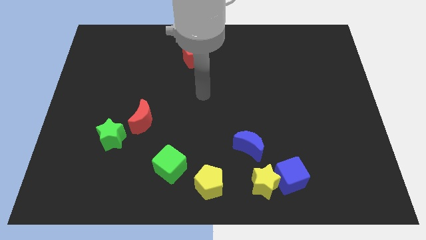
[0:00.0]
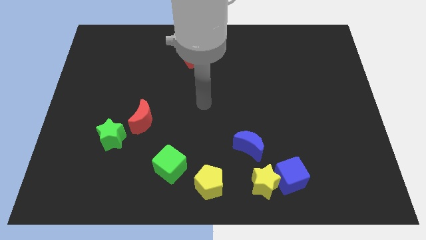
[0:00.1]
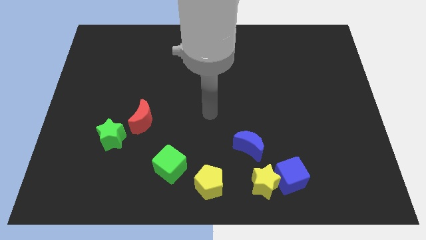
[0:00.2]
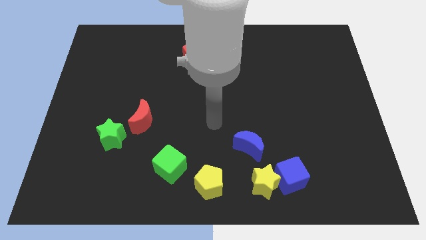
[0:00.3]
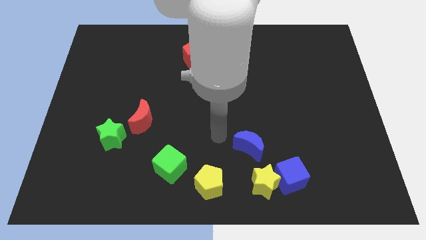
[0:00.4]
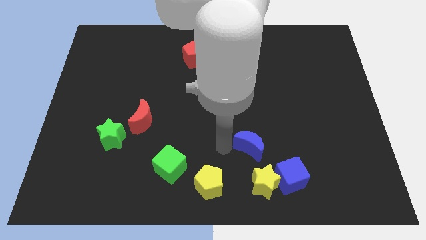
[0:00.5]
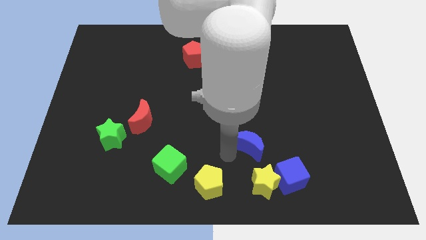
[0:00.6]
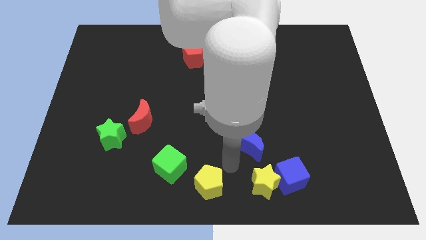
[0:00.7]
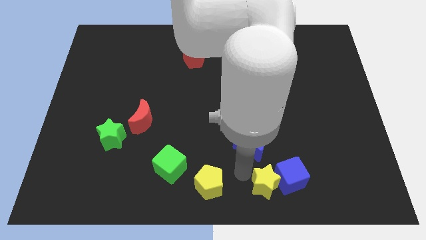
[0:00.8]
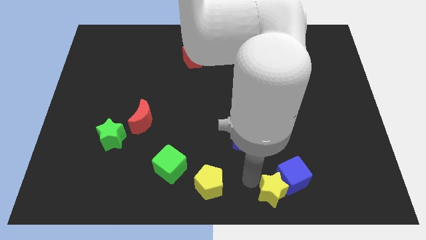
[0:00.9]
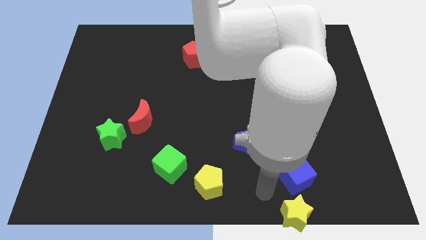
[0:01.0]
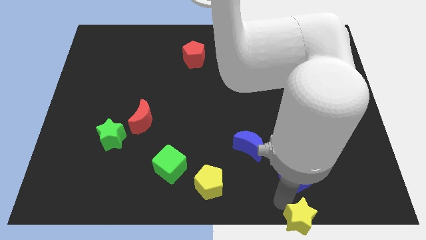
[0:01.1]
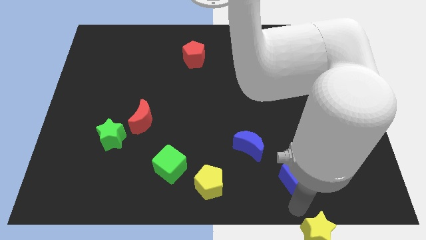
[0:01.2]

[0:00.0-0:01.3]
separate the blue cube from the yellow star

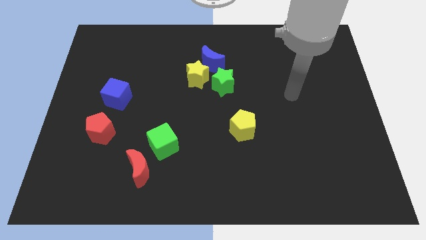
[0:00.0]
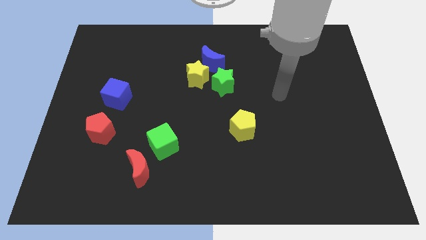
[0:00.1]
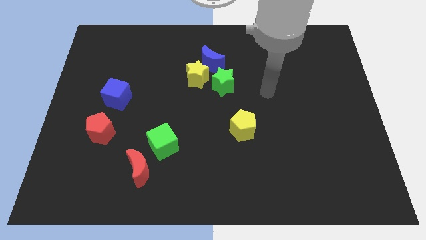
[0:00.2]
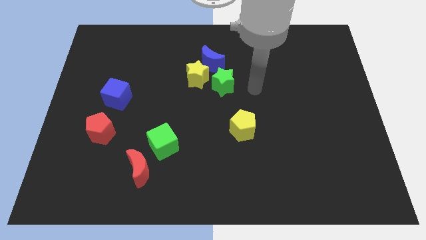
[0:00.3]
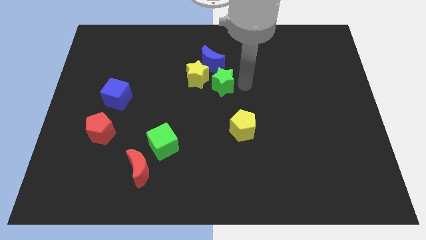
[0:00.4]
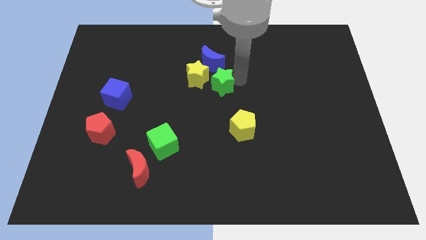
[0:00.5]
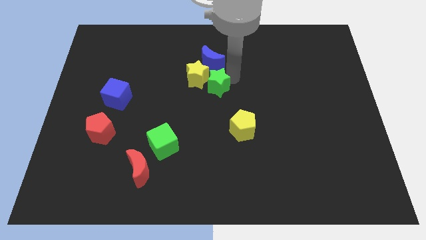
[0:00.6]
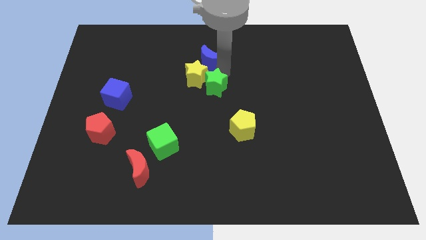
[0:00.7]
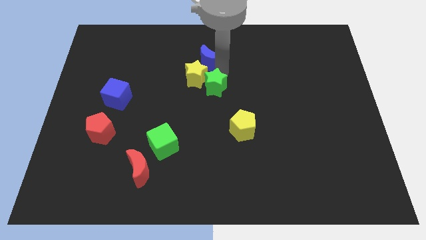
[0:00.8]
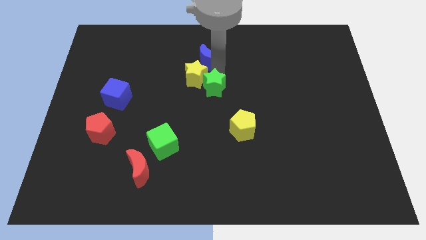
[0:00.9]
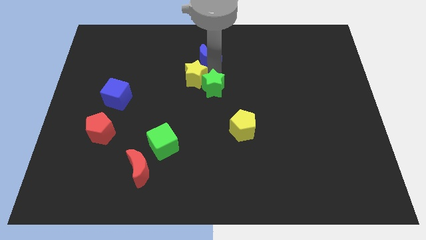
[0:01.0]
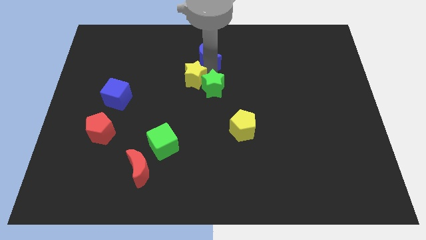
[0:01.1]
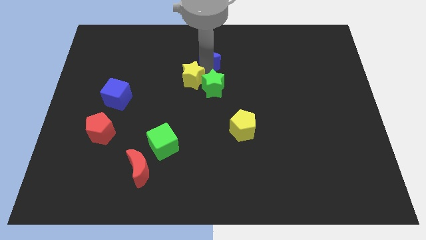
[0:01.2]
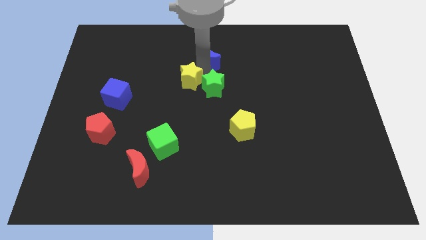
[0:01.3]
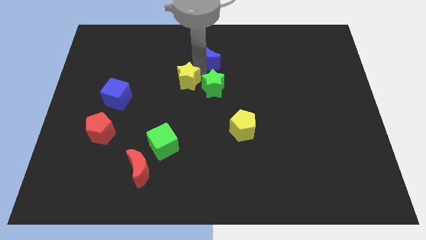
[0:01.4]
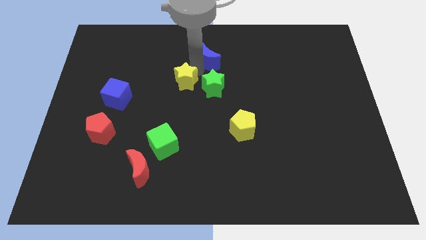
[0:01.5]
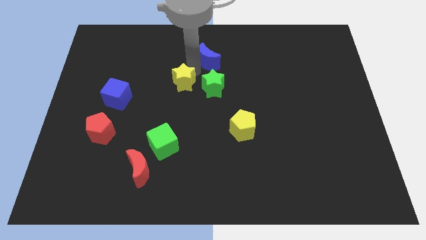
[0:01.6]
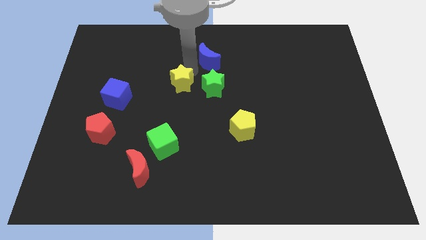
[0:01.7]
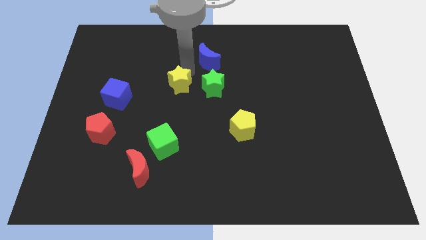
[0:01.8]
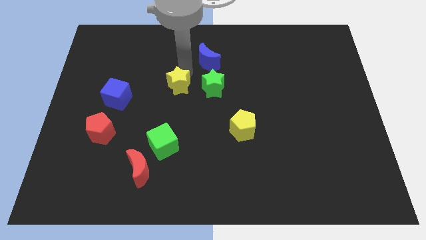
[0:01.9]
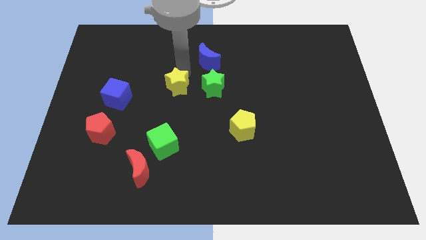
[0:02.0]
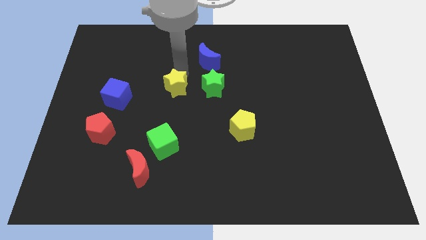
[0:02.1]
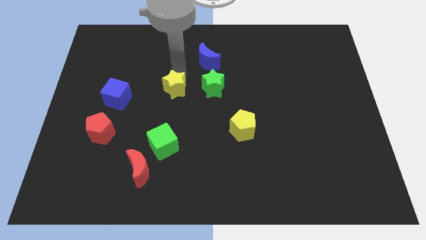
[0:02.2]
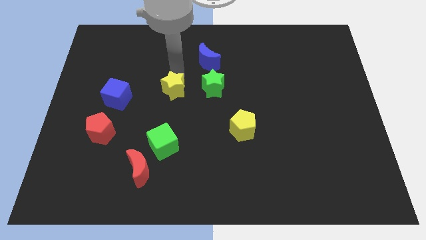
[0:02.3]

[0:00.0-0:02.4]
separate the yellow star from the blue moon and green star

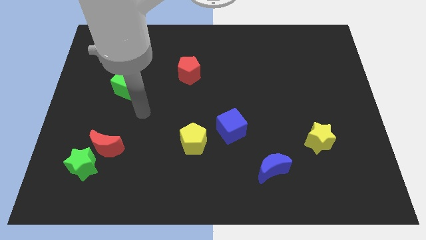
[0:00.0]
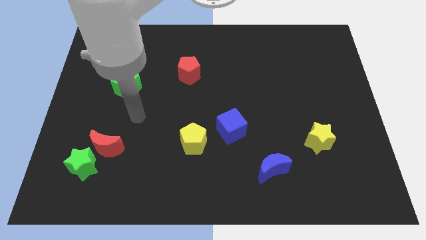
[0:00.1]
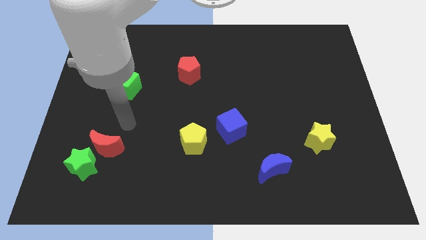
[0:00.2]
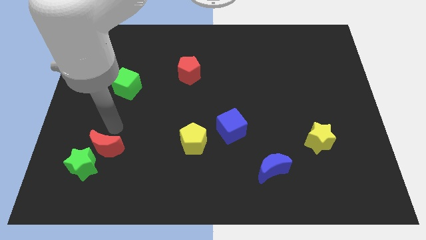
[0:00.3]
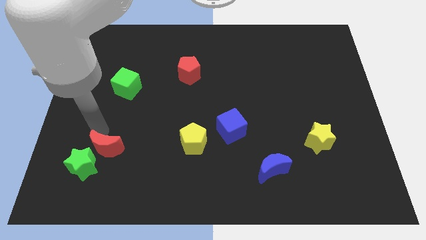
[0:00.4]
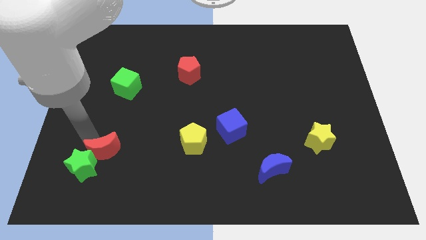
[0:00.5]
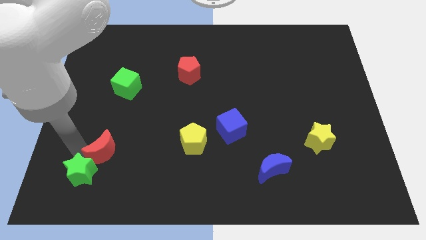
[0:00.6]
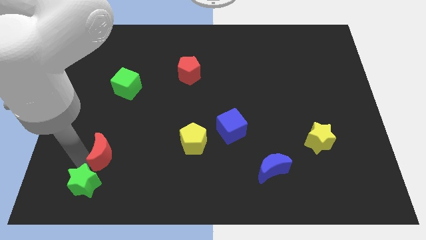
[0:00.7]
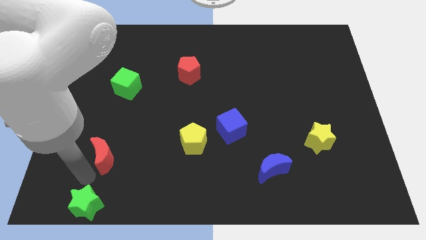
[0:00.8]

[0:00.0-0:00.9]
pull the red moon apart from the green star

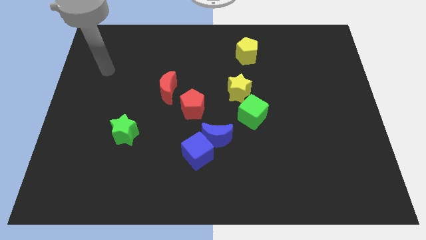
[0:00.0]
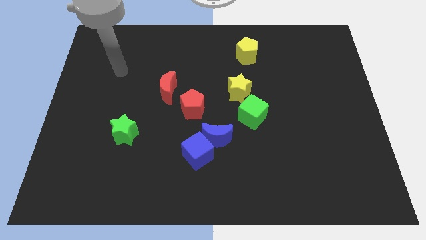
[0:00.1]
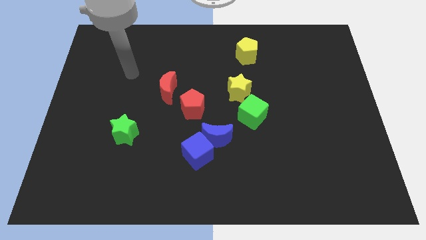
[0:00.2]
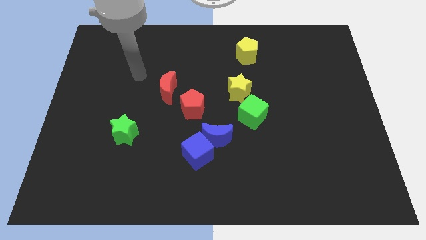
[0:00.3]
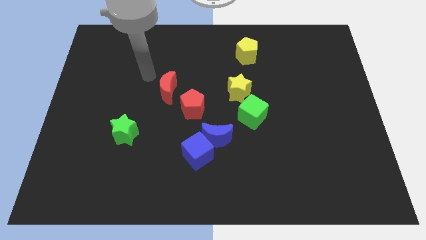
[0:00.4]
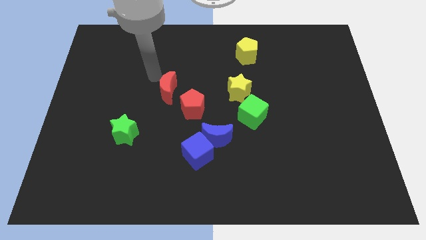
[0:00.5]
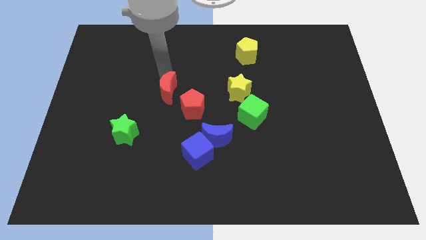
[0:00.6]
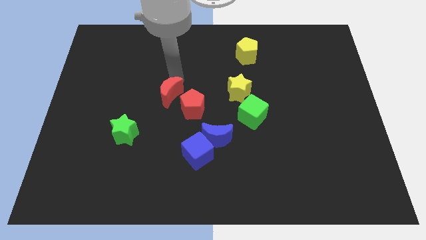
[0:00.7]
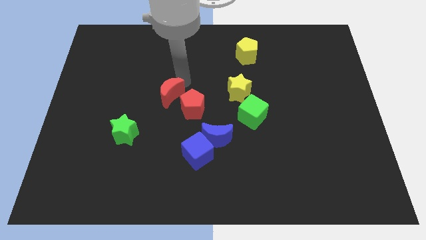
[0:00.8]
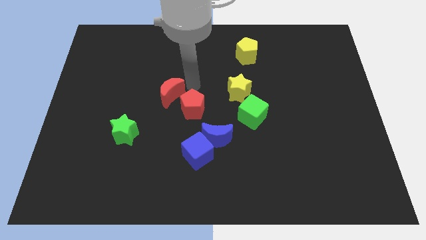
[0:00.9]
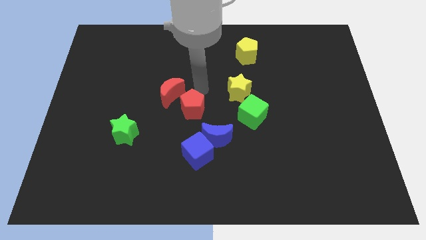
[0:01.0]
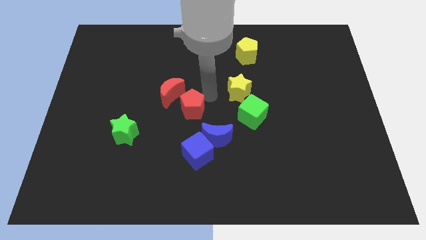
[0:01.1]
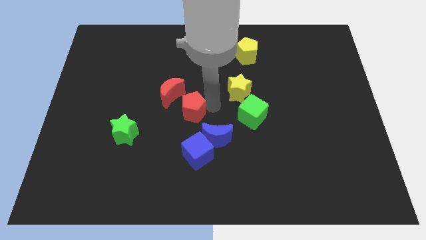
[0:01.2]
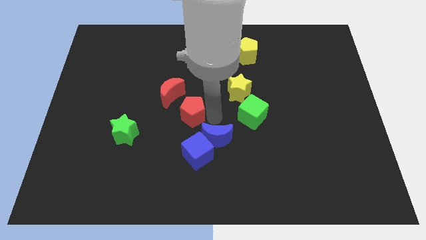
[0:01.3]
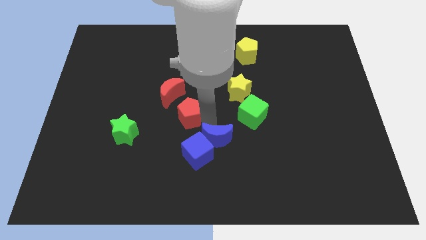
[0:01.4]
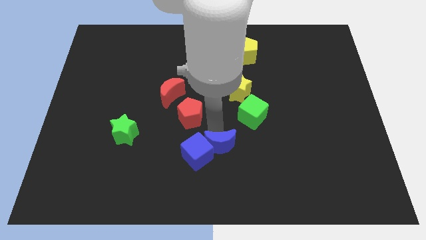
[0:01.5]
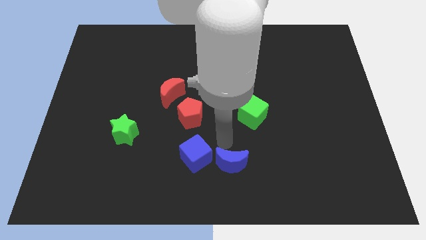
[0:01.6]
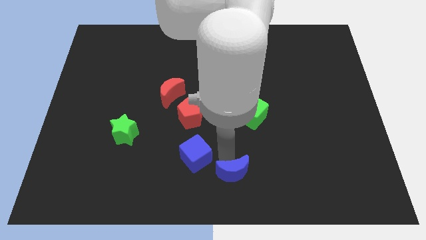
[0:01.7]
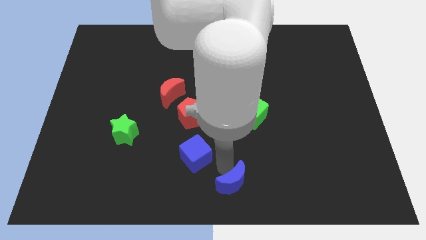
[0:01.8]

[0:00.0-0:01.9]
pull the blue cube apart from the blue moon

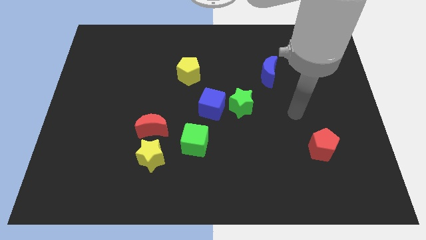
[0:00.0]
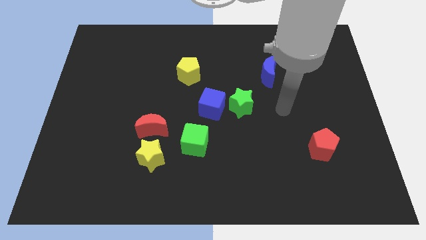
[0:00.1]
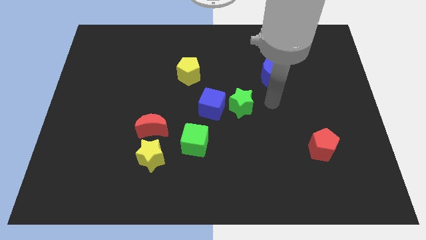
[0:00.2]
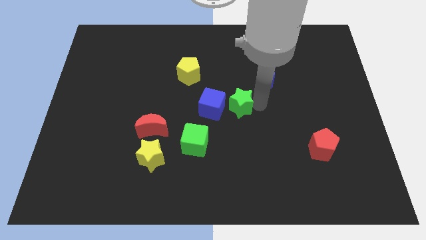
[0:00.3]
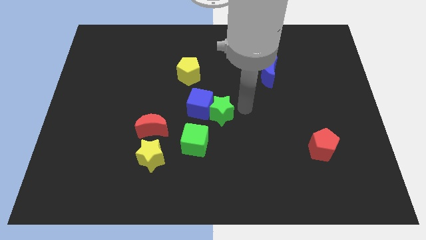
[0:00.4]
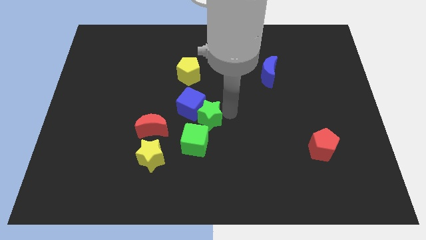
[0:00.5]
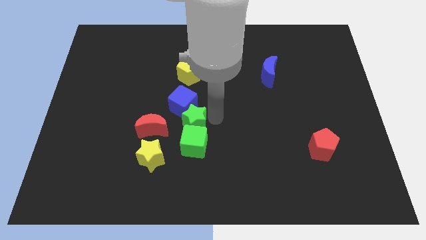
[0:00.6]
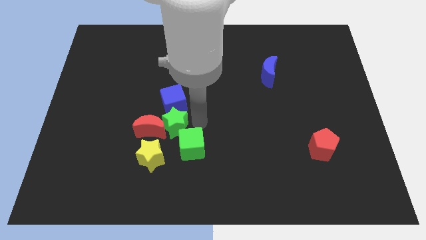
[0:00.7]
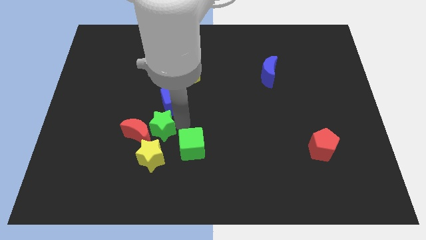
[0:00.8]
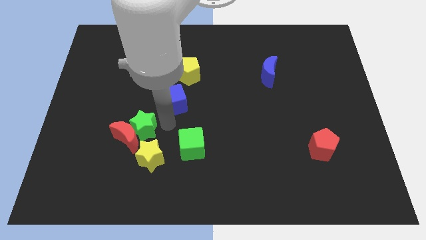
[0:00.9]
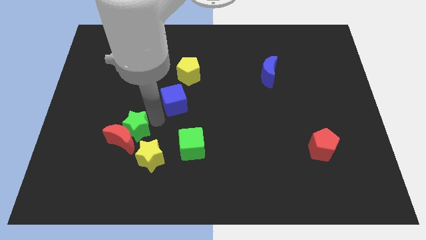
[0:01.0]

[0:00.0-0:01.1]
separate the blue cube from the green star

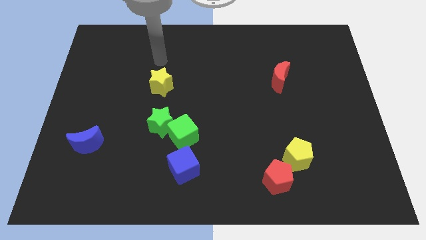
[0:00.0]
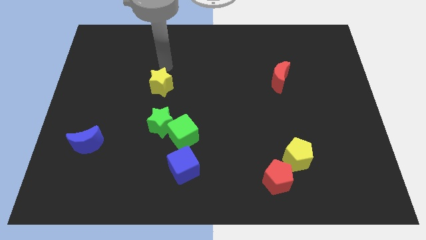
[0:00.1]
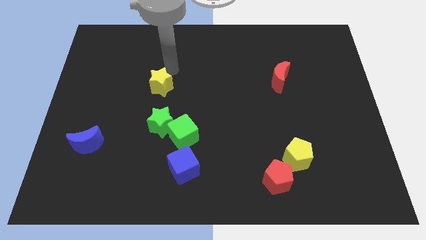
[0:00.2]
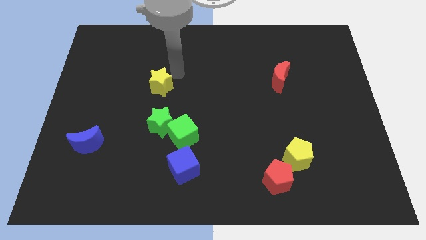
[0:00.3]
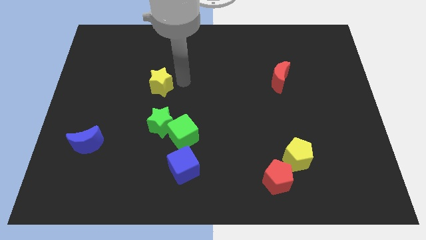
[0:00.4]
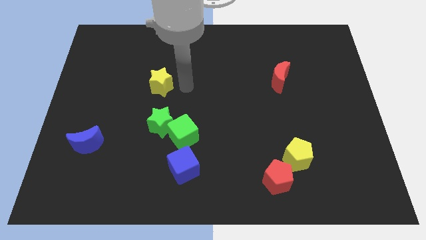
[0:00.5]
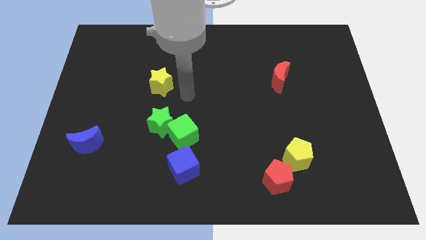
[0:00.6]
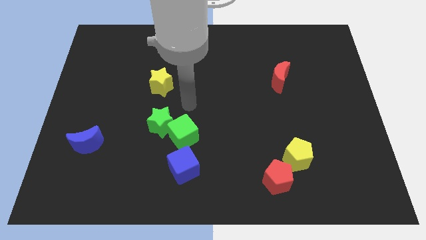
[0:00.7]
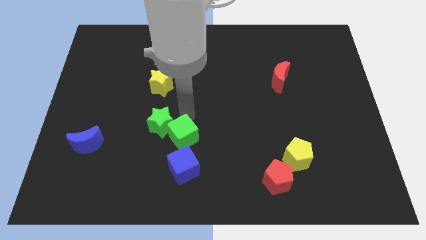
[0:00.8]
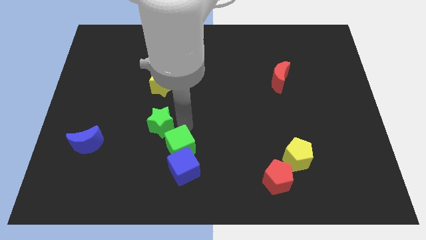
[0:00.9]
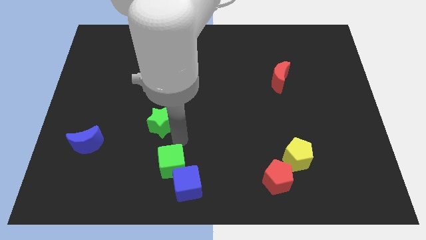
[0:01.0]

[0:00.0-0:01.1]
move the green star away from the green cube

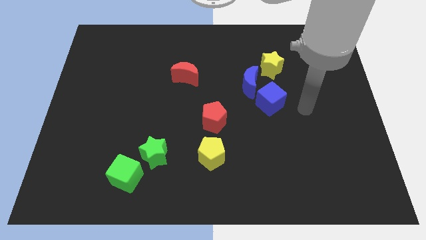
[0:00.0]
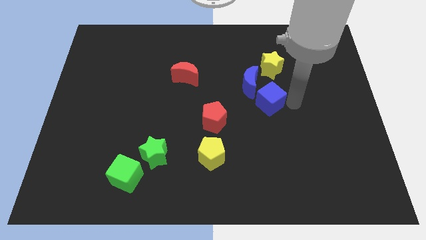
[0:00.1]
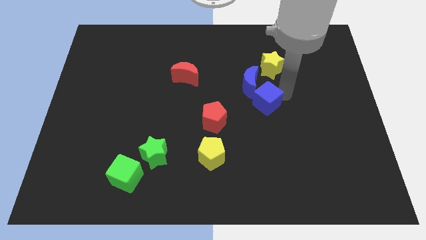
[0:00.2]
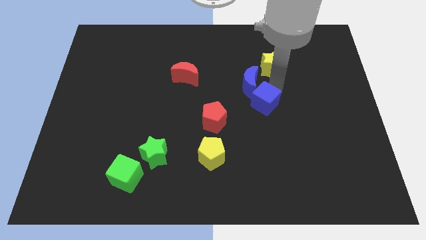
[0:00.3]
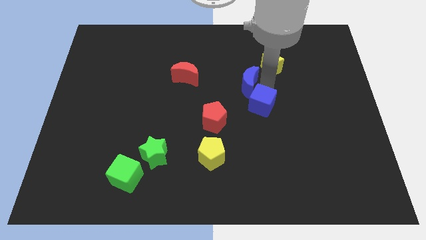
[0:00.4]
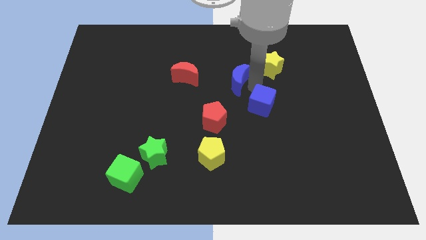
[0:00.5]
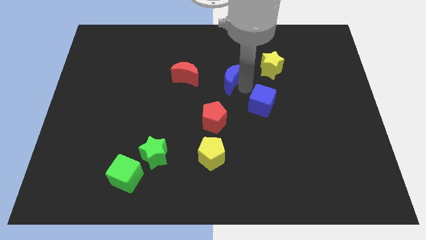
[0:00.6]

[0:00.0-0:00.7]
separate the blue cube from the blue moon
